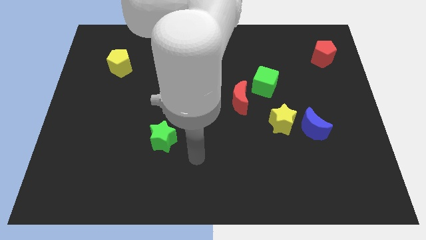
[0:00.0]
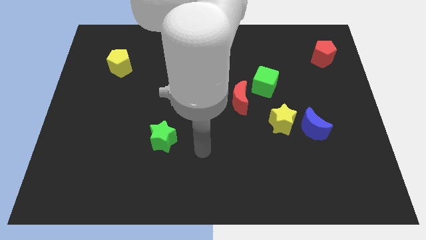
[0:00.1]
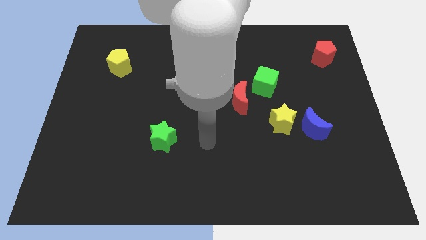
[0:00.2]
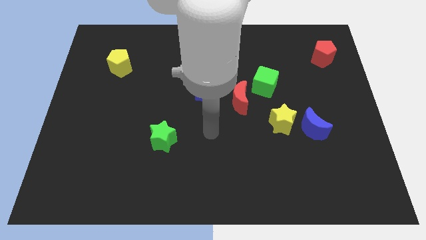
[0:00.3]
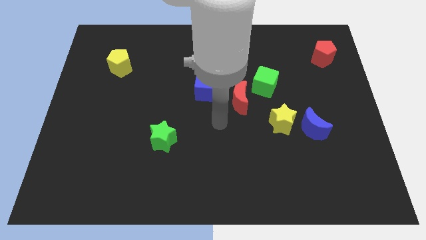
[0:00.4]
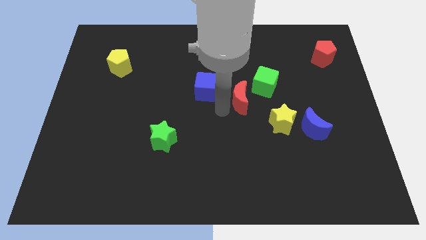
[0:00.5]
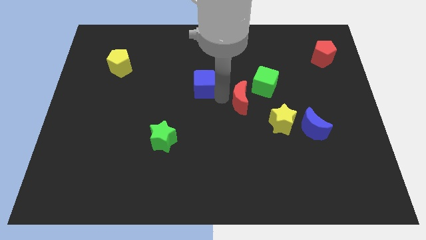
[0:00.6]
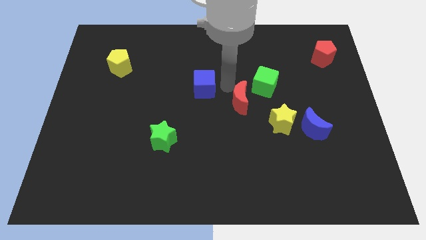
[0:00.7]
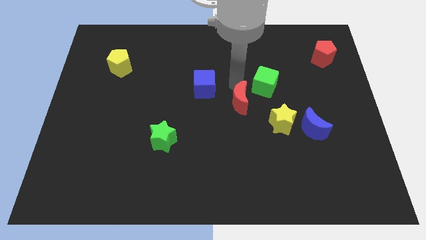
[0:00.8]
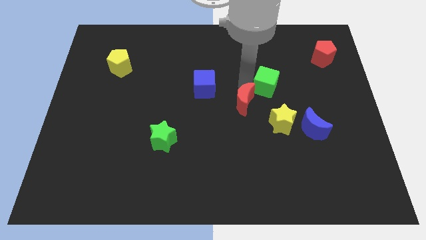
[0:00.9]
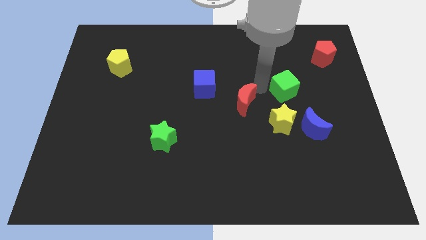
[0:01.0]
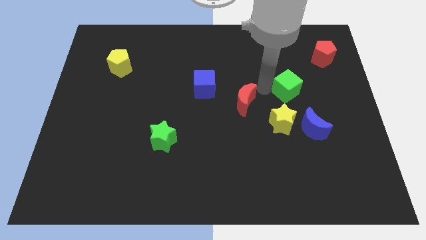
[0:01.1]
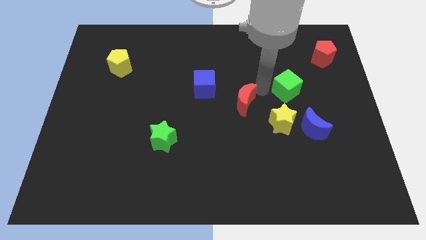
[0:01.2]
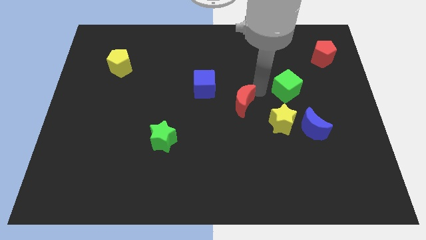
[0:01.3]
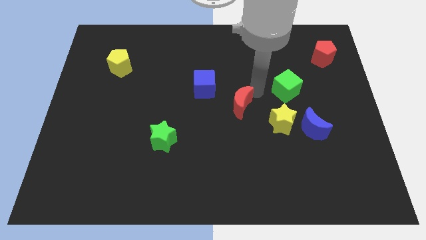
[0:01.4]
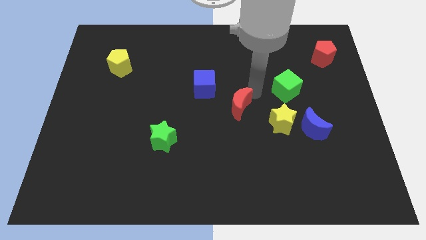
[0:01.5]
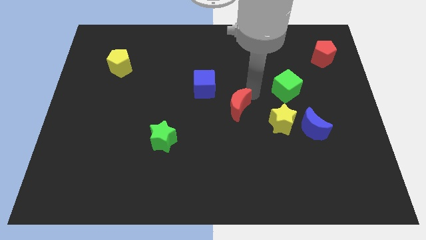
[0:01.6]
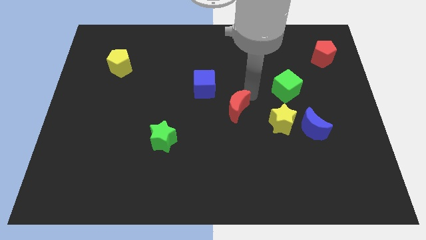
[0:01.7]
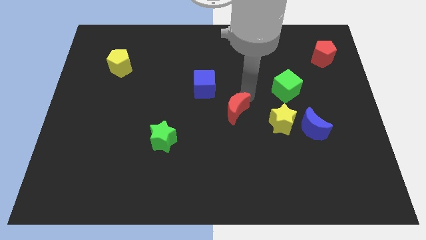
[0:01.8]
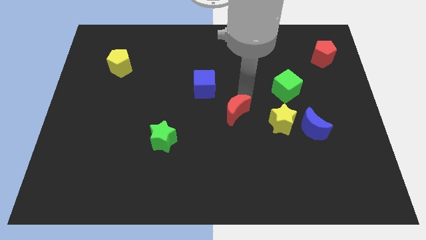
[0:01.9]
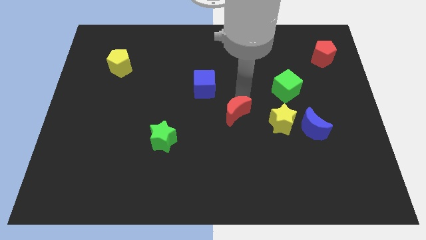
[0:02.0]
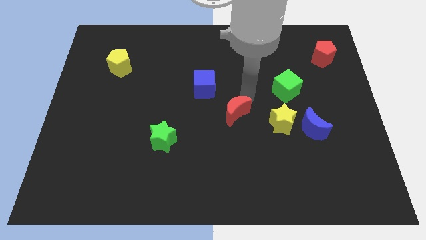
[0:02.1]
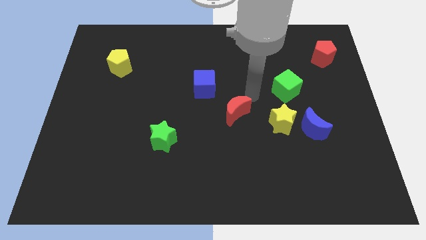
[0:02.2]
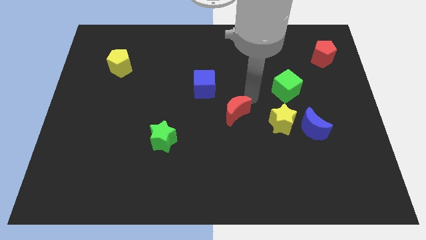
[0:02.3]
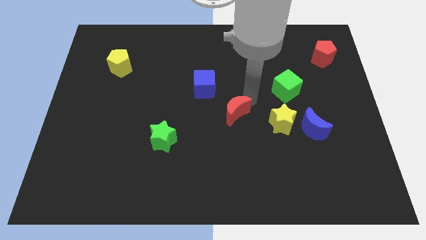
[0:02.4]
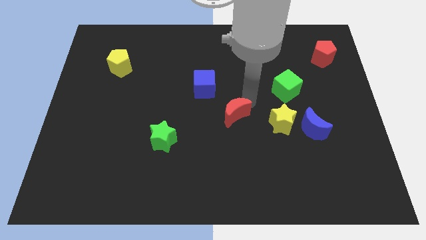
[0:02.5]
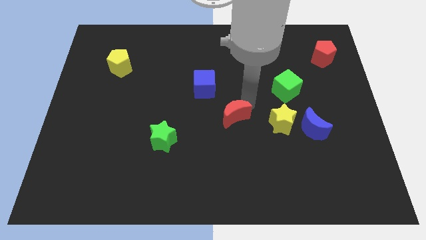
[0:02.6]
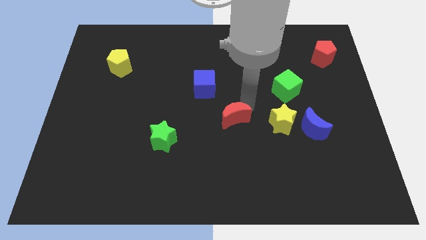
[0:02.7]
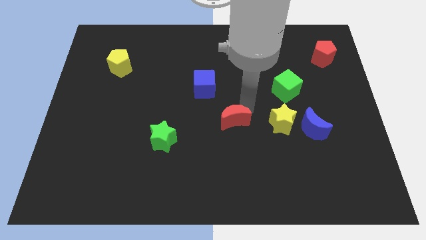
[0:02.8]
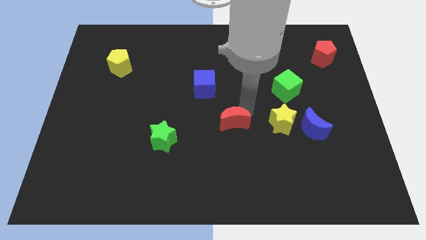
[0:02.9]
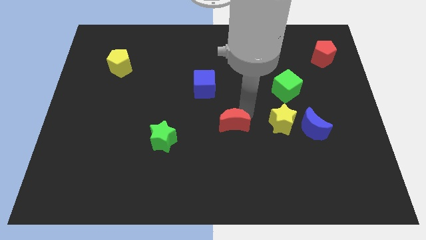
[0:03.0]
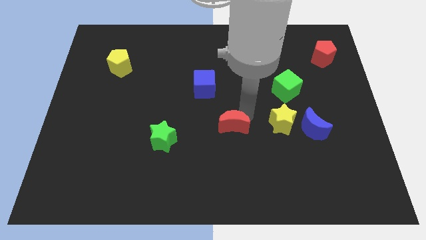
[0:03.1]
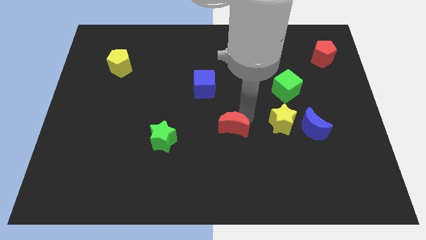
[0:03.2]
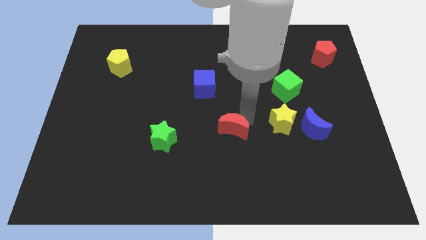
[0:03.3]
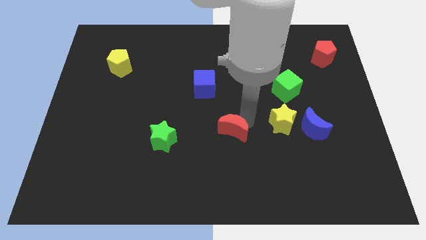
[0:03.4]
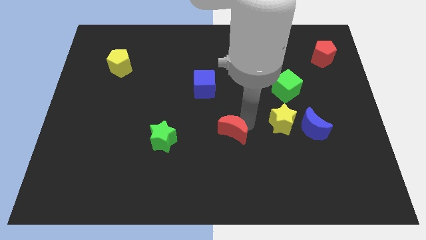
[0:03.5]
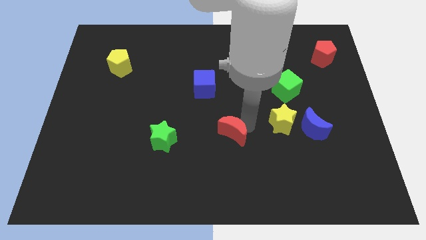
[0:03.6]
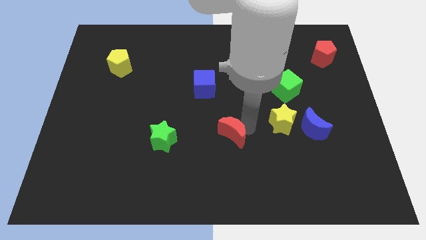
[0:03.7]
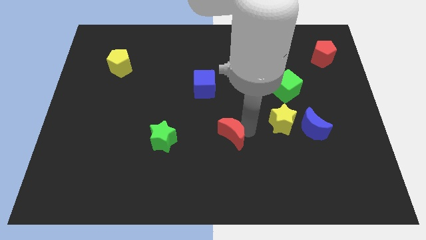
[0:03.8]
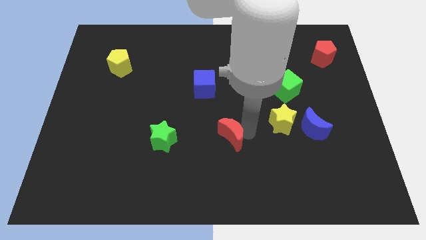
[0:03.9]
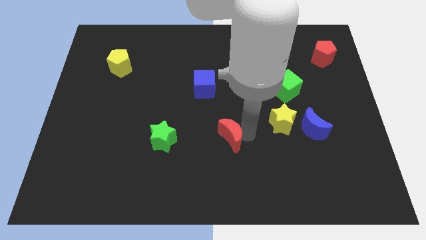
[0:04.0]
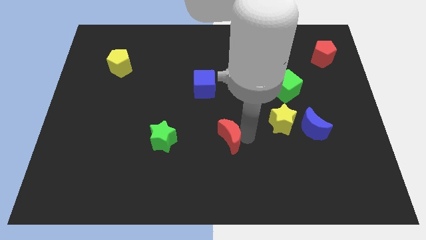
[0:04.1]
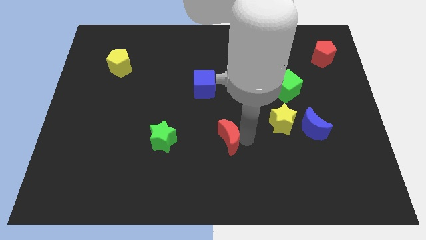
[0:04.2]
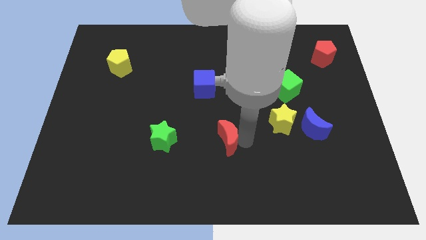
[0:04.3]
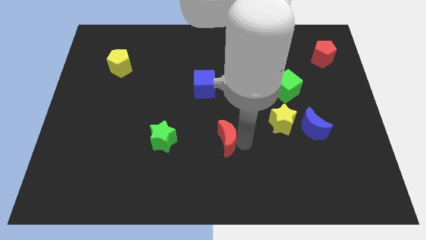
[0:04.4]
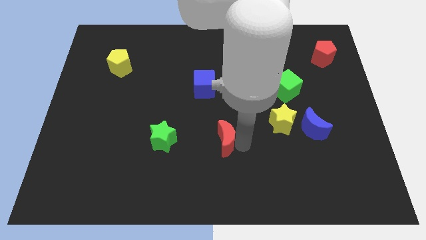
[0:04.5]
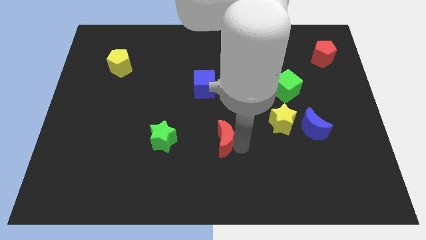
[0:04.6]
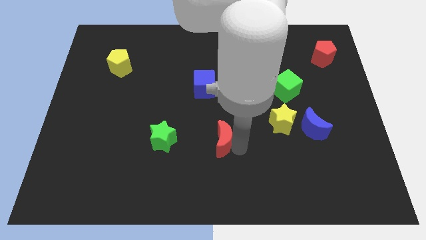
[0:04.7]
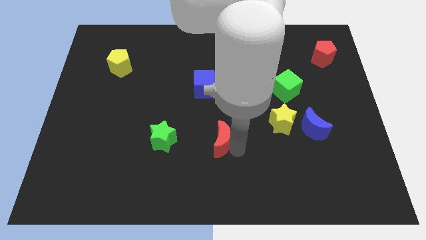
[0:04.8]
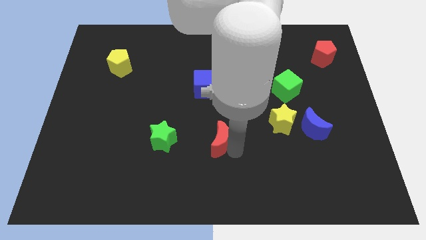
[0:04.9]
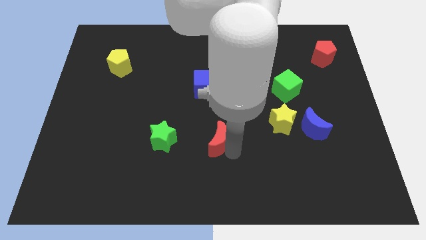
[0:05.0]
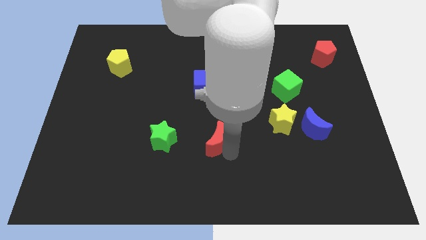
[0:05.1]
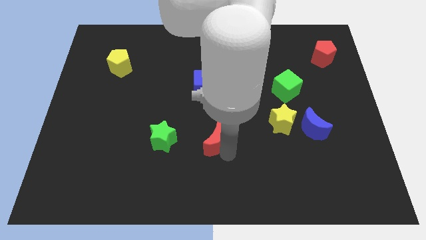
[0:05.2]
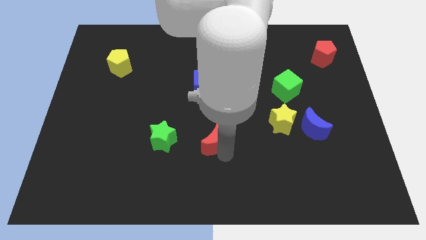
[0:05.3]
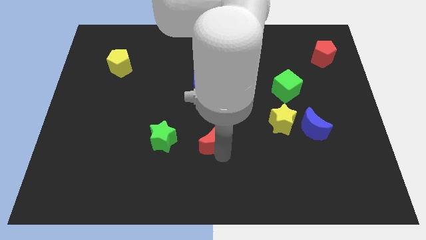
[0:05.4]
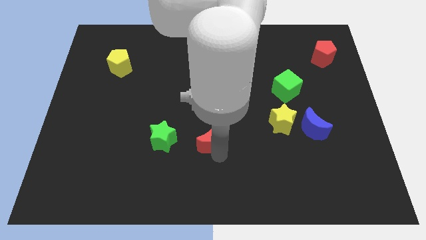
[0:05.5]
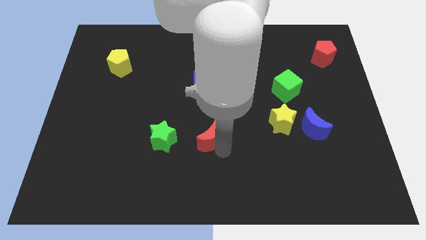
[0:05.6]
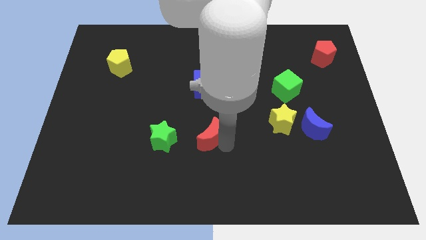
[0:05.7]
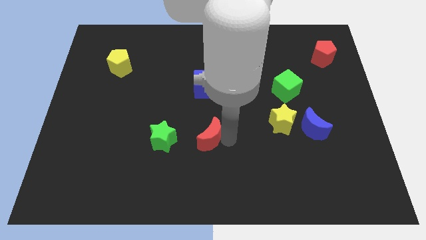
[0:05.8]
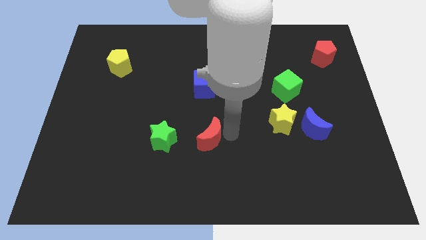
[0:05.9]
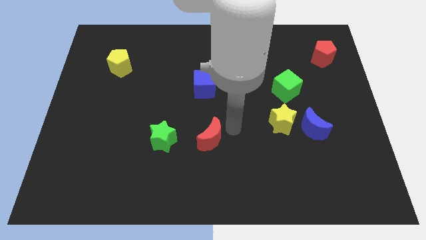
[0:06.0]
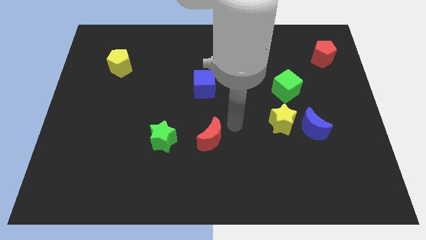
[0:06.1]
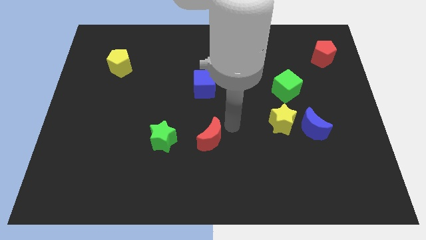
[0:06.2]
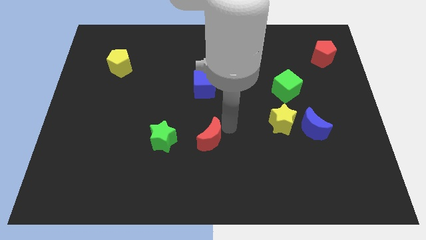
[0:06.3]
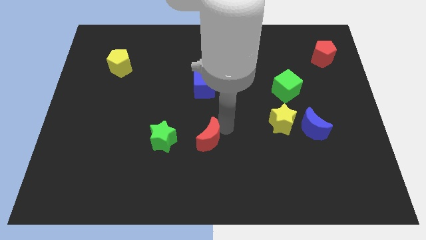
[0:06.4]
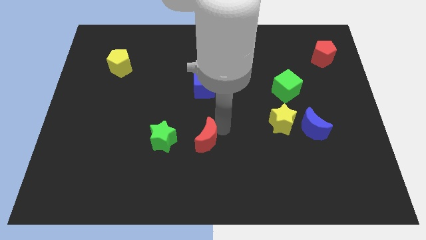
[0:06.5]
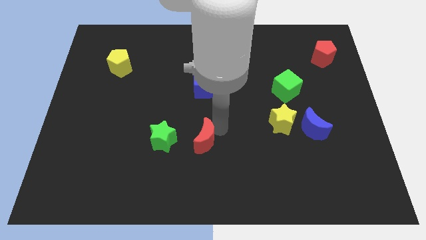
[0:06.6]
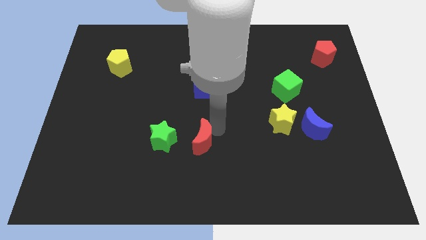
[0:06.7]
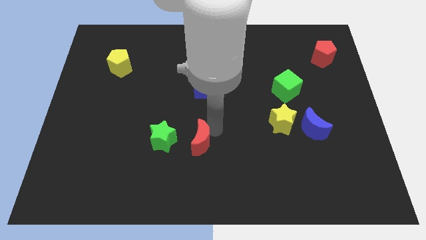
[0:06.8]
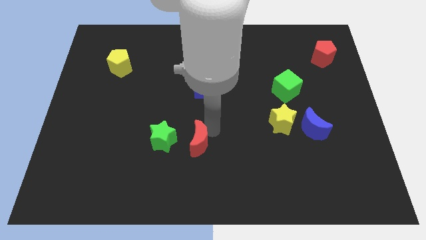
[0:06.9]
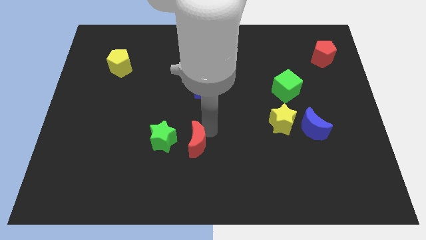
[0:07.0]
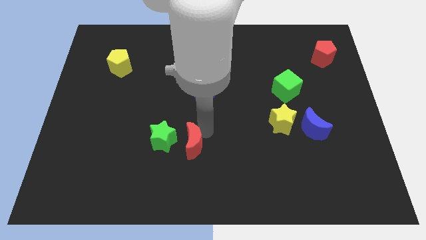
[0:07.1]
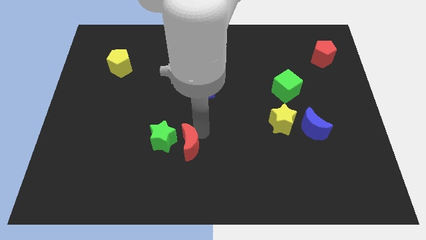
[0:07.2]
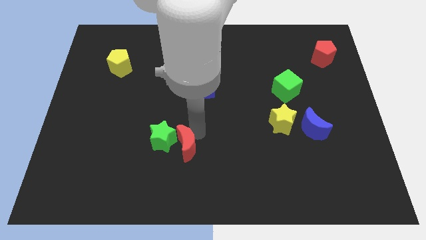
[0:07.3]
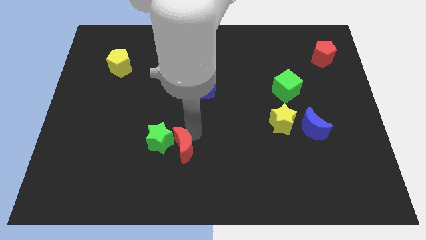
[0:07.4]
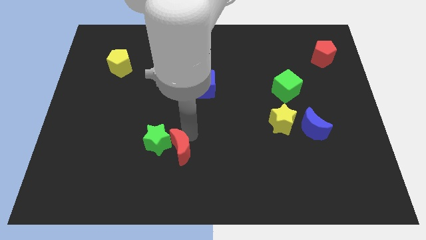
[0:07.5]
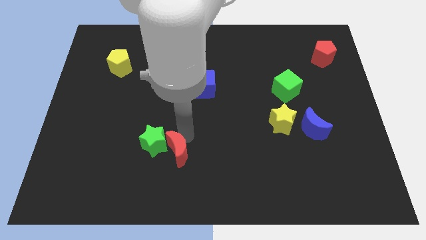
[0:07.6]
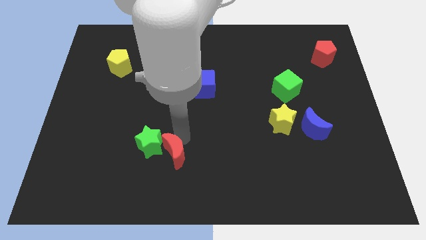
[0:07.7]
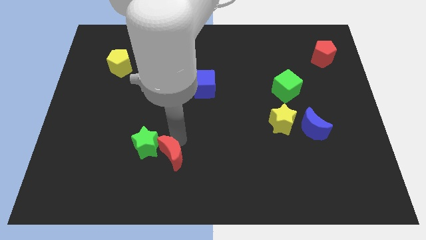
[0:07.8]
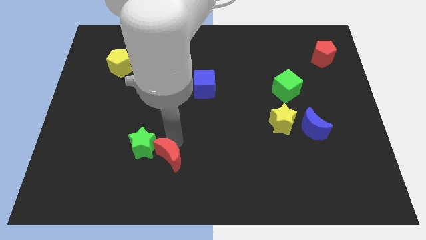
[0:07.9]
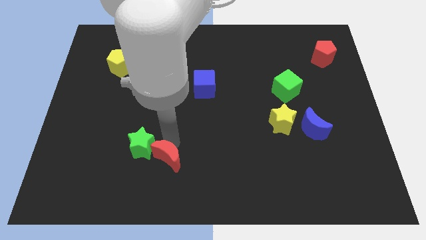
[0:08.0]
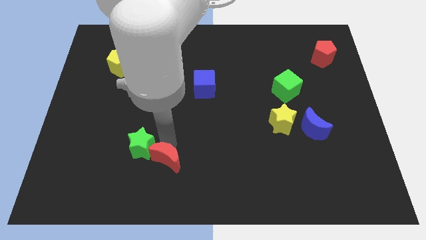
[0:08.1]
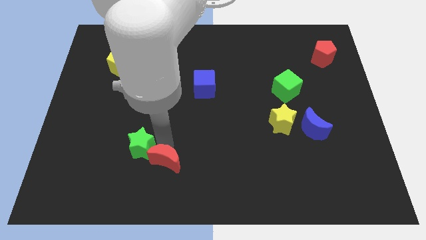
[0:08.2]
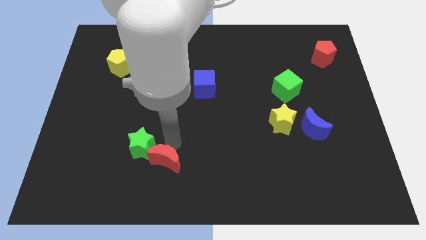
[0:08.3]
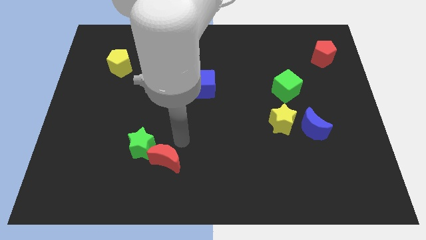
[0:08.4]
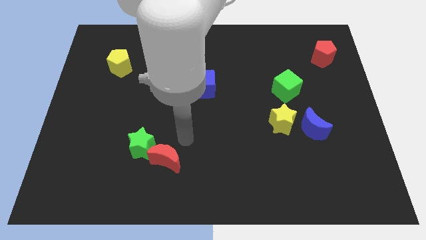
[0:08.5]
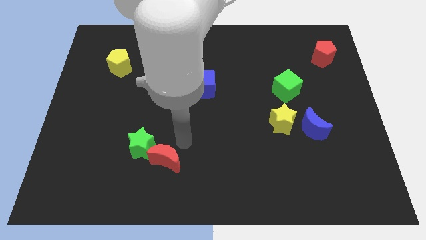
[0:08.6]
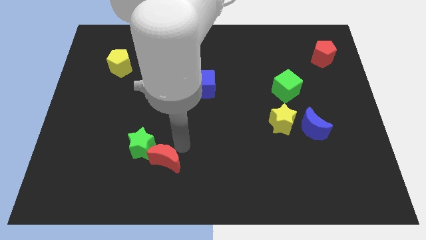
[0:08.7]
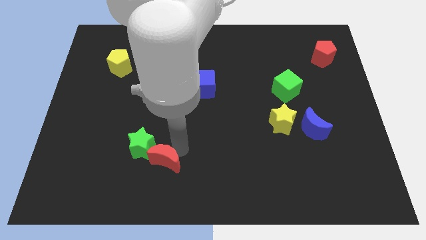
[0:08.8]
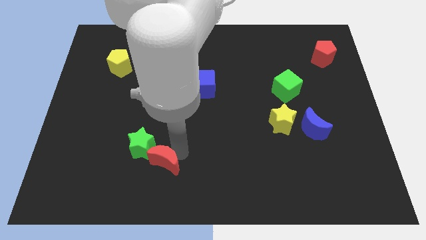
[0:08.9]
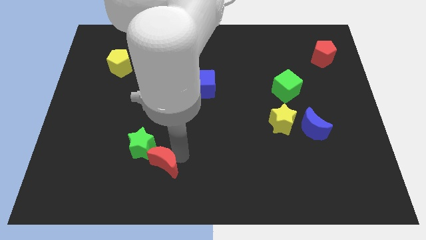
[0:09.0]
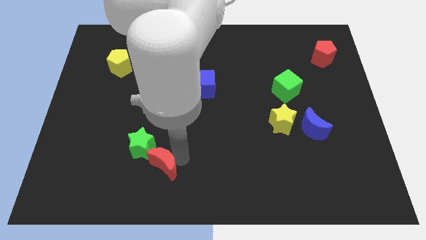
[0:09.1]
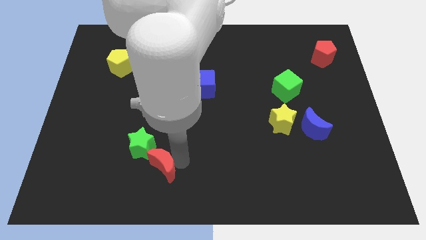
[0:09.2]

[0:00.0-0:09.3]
slide the red moon to the bottom of the green star
